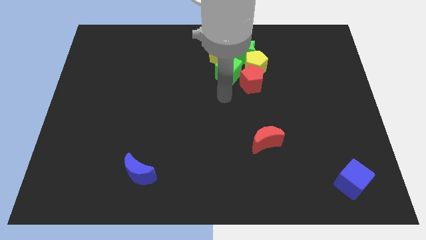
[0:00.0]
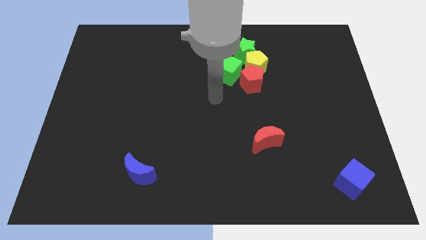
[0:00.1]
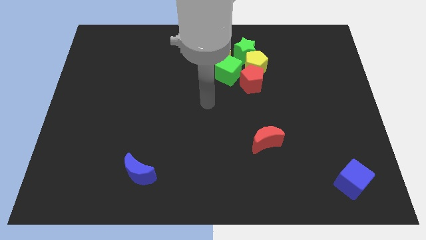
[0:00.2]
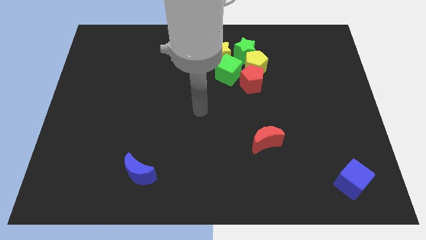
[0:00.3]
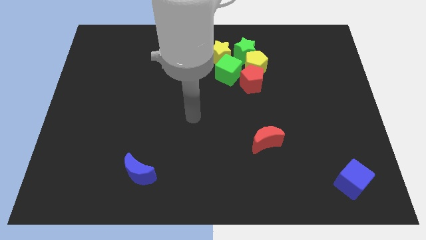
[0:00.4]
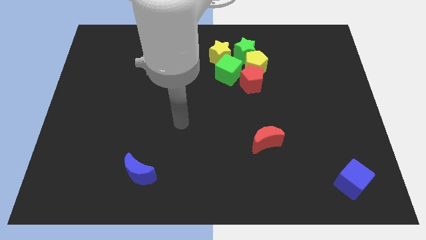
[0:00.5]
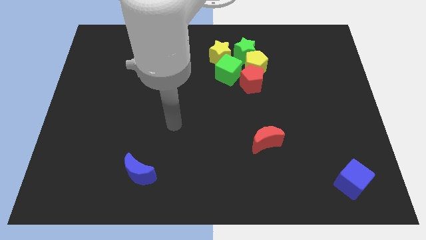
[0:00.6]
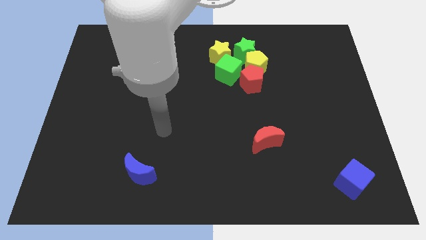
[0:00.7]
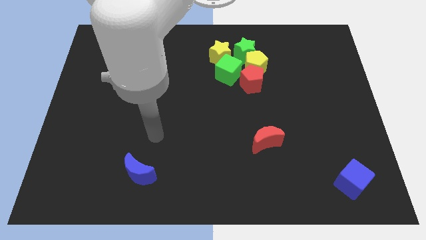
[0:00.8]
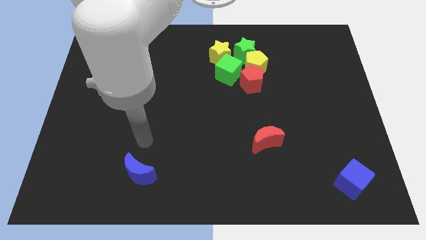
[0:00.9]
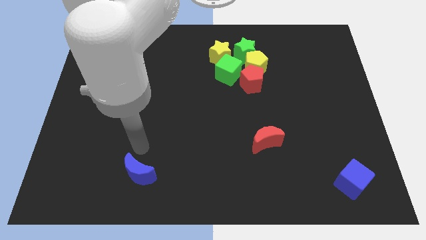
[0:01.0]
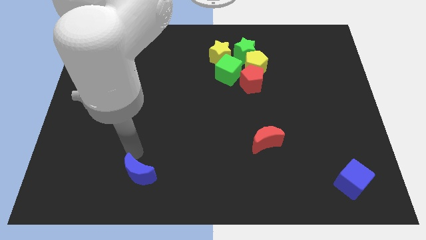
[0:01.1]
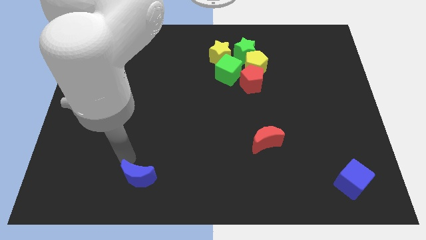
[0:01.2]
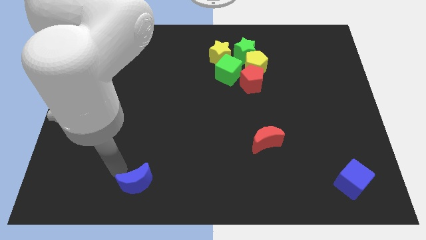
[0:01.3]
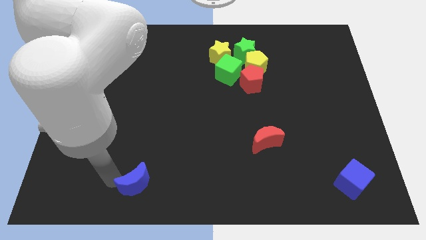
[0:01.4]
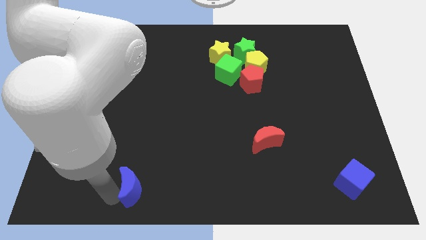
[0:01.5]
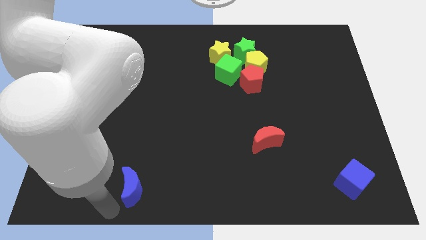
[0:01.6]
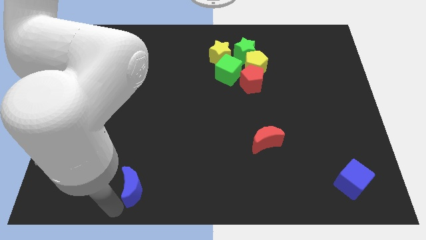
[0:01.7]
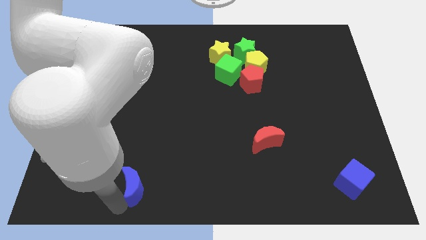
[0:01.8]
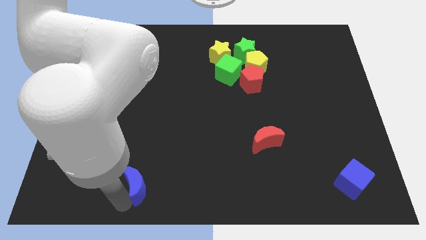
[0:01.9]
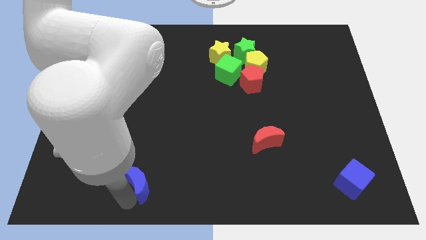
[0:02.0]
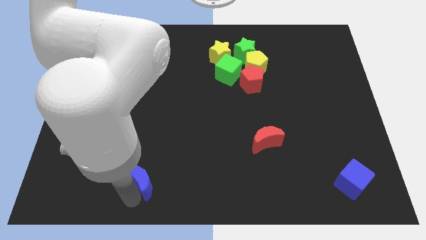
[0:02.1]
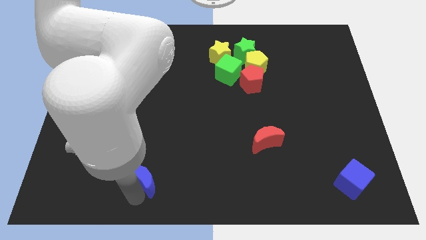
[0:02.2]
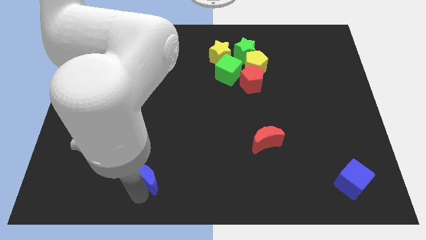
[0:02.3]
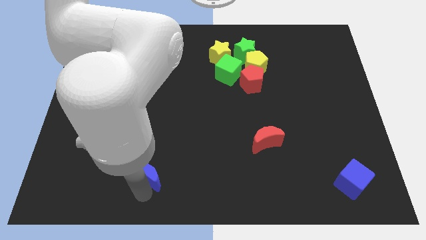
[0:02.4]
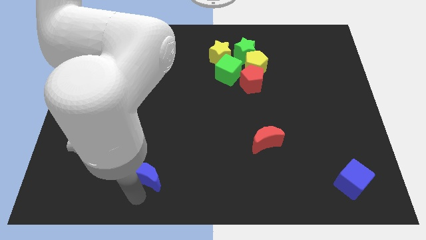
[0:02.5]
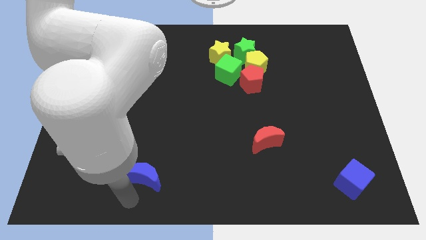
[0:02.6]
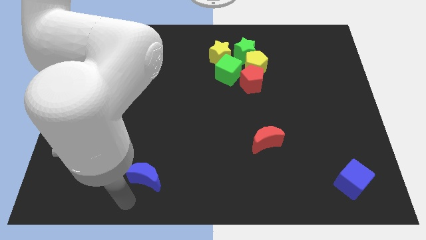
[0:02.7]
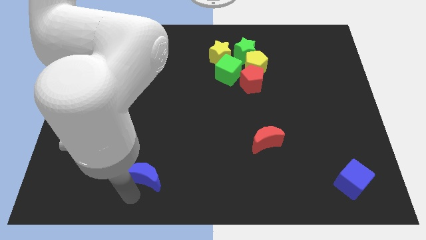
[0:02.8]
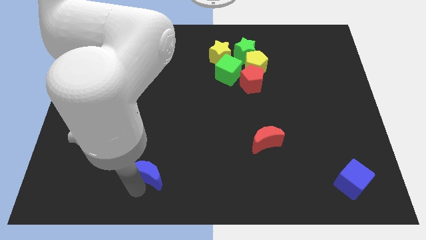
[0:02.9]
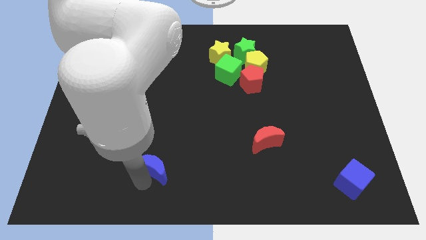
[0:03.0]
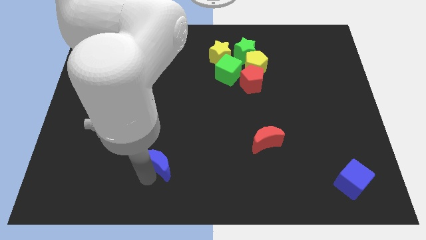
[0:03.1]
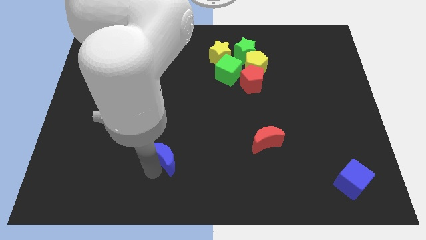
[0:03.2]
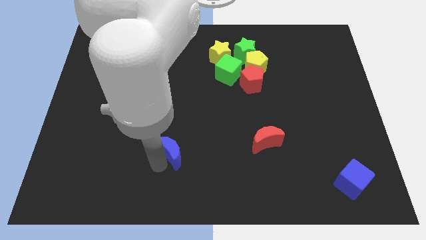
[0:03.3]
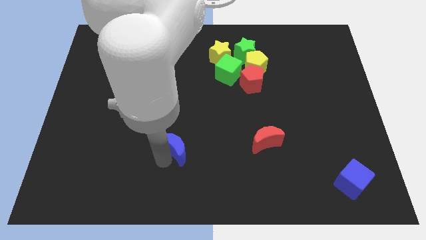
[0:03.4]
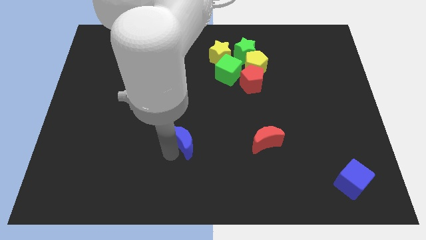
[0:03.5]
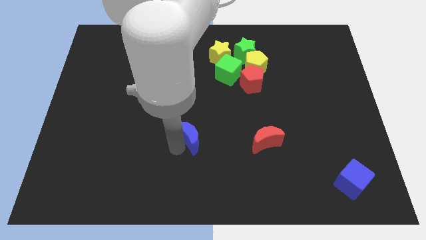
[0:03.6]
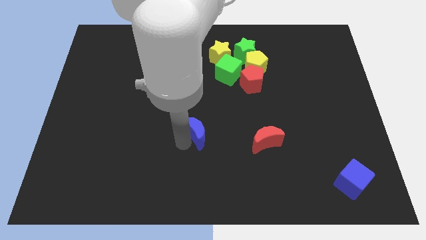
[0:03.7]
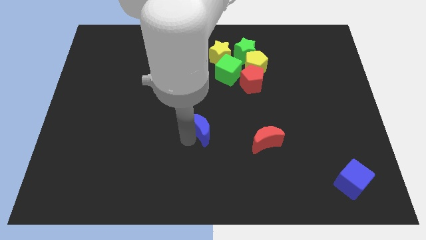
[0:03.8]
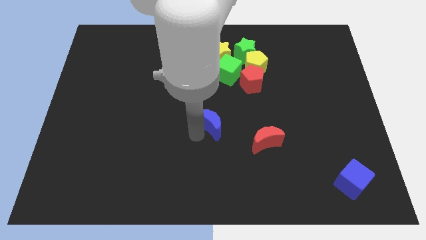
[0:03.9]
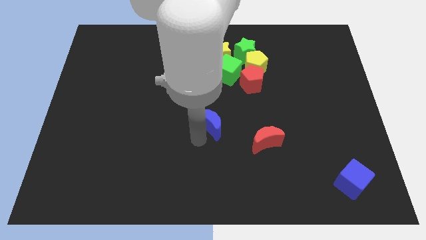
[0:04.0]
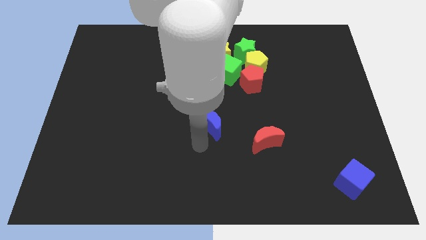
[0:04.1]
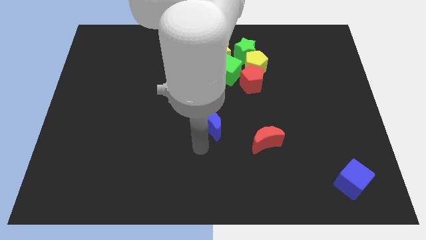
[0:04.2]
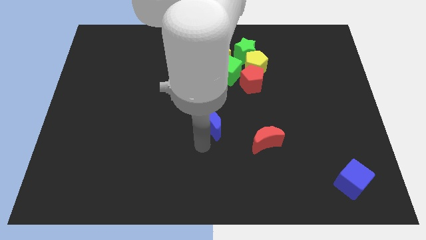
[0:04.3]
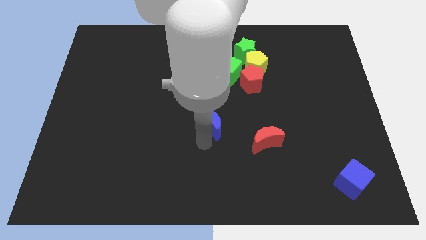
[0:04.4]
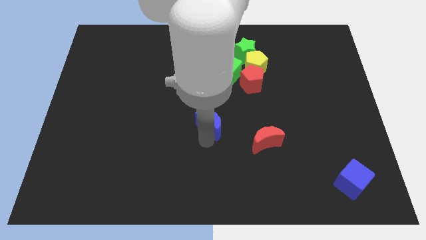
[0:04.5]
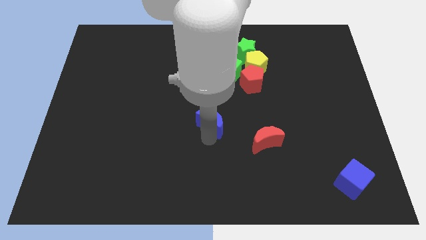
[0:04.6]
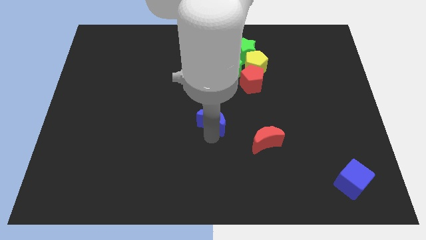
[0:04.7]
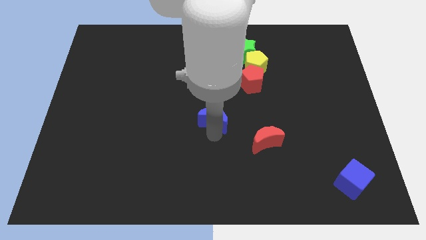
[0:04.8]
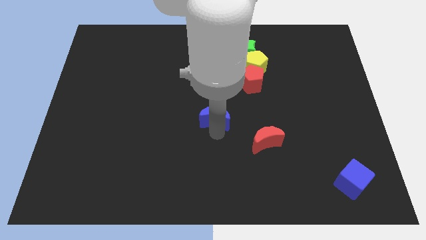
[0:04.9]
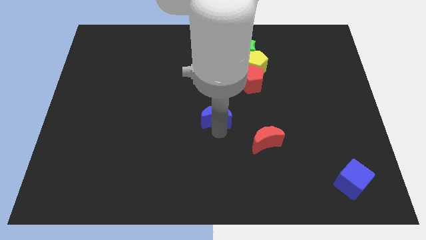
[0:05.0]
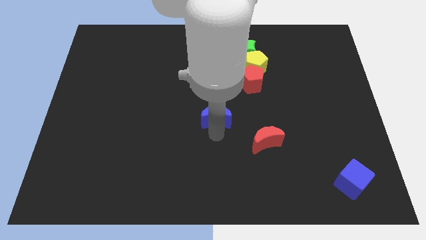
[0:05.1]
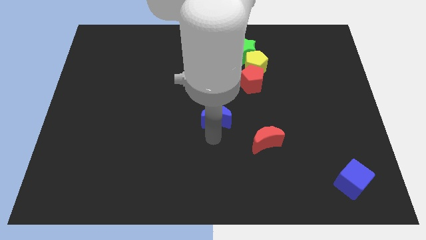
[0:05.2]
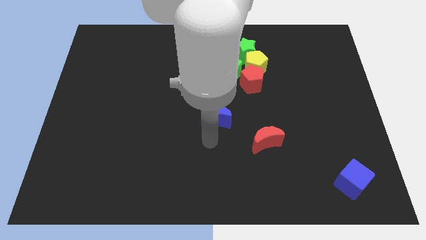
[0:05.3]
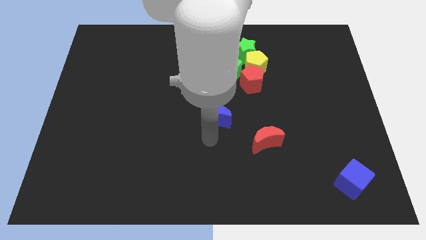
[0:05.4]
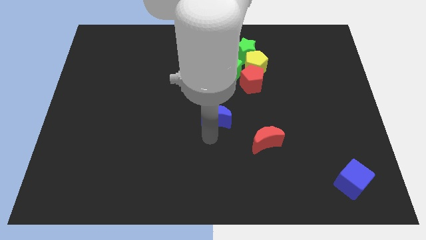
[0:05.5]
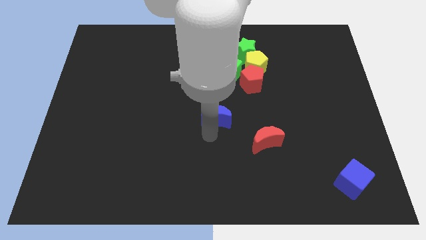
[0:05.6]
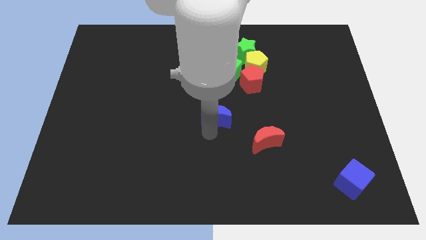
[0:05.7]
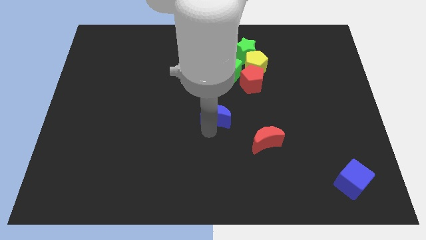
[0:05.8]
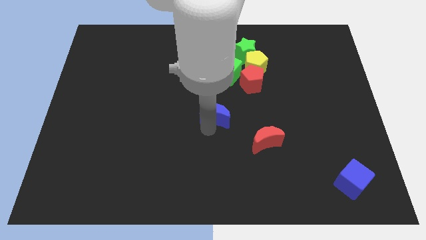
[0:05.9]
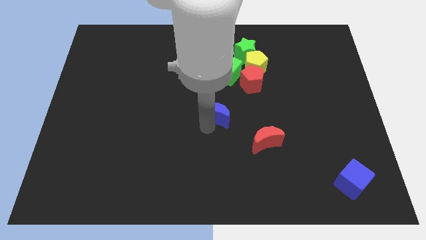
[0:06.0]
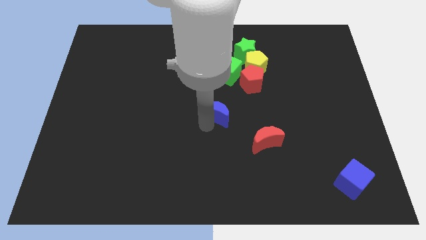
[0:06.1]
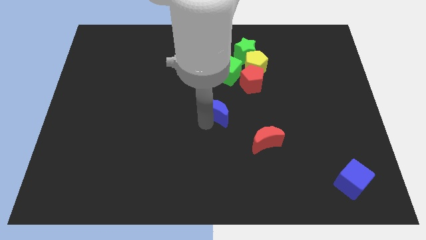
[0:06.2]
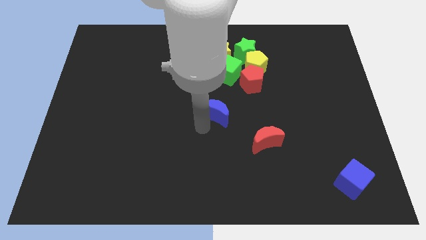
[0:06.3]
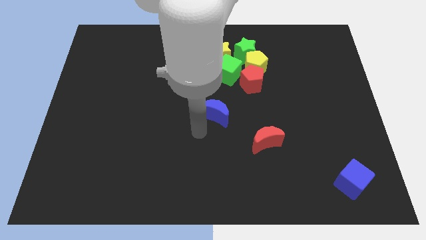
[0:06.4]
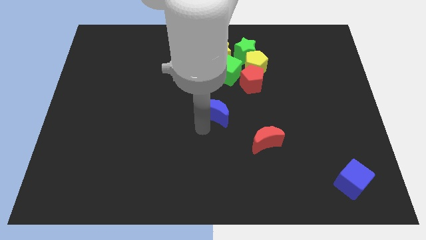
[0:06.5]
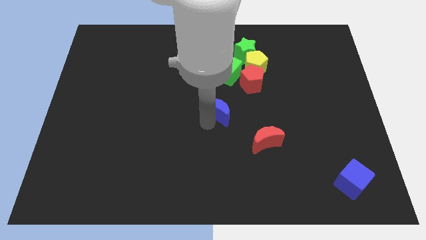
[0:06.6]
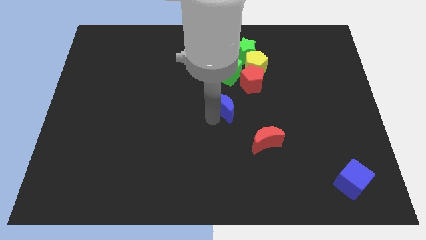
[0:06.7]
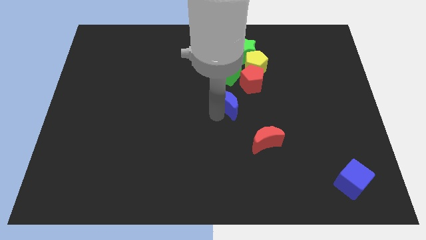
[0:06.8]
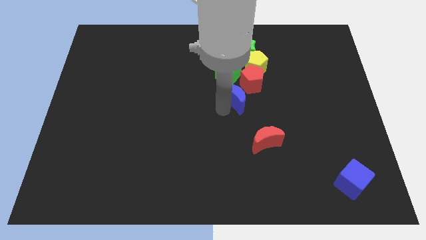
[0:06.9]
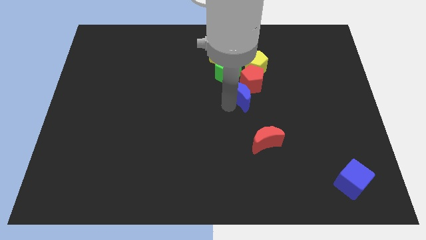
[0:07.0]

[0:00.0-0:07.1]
push the blue moon to the red pentagon
